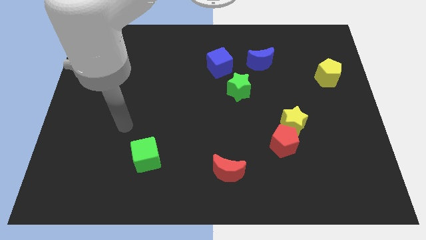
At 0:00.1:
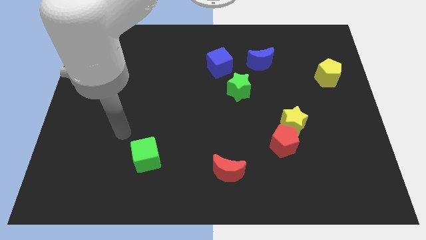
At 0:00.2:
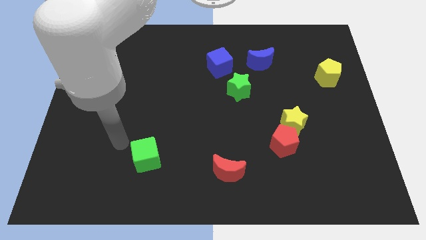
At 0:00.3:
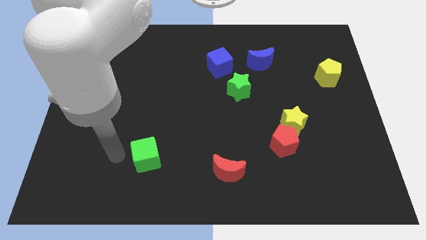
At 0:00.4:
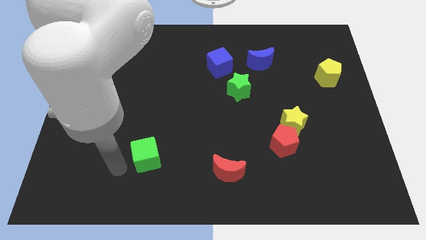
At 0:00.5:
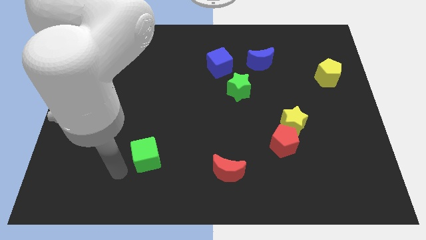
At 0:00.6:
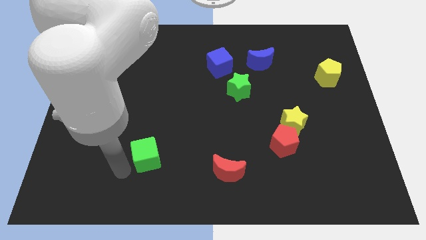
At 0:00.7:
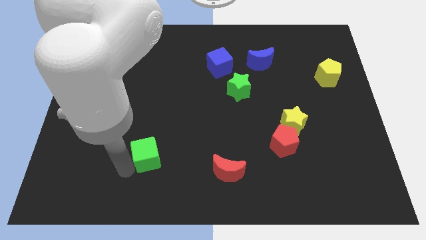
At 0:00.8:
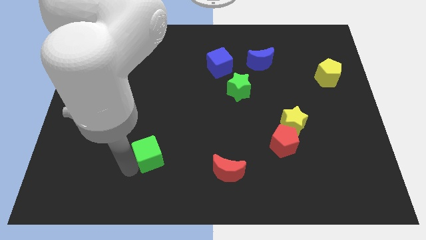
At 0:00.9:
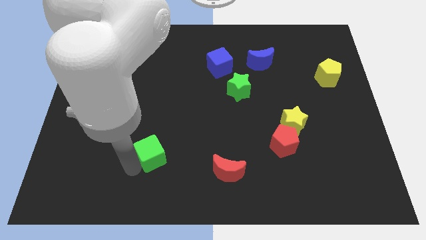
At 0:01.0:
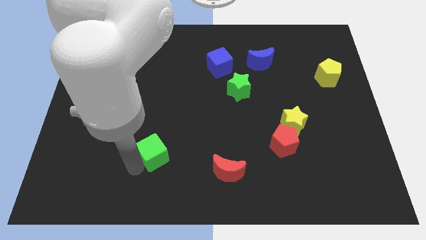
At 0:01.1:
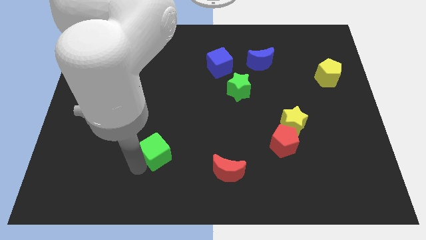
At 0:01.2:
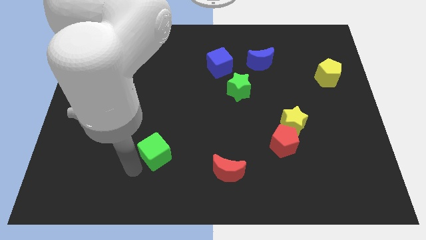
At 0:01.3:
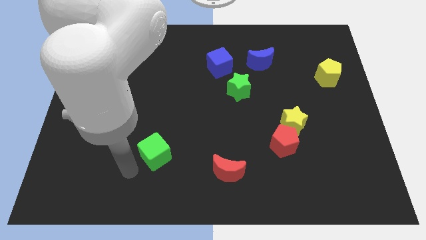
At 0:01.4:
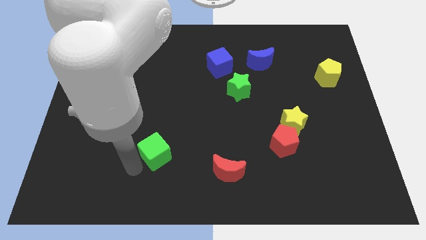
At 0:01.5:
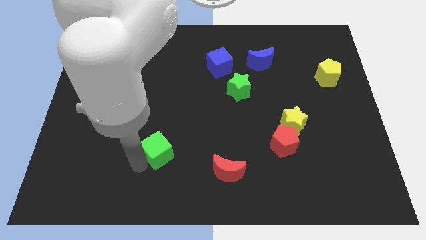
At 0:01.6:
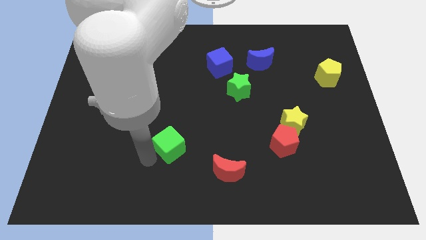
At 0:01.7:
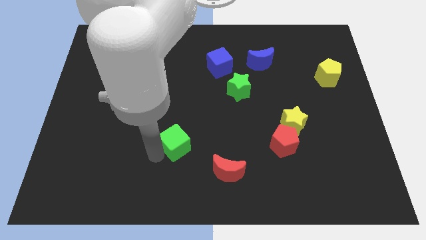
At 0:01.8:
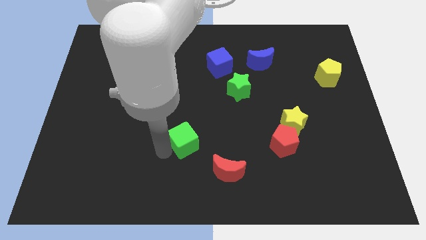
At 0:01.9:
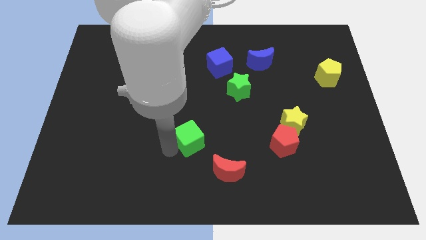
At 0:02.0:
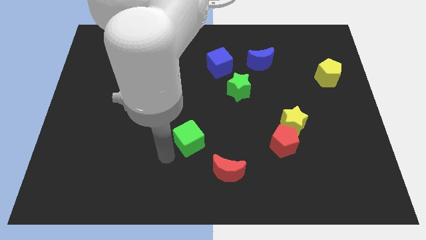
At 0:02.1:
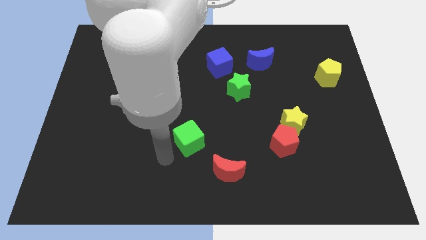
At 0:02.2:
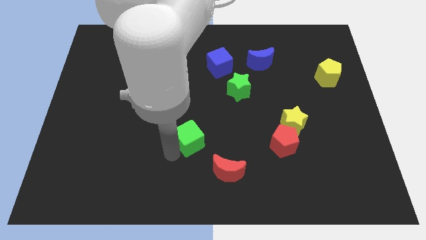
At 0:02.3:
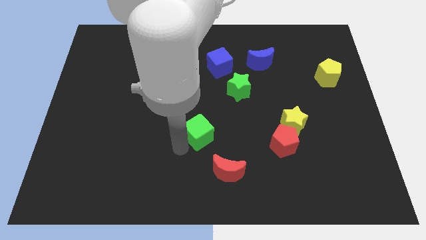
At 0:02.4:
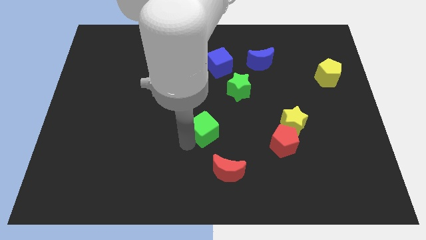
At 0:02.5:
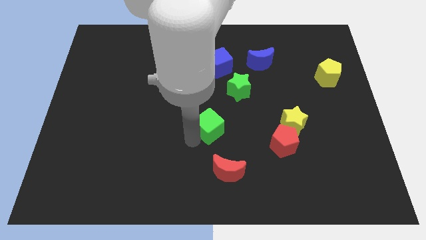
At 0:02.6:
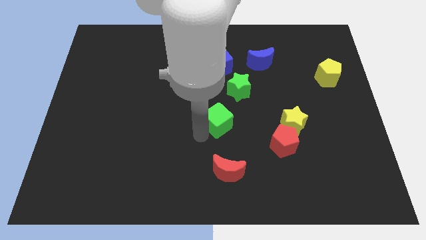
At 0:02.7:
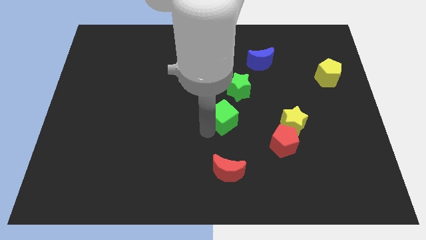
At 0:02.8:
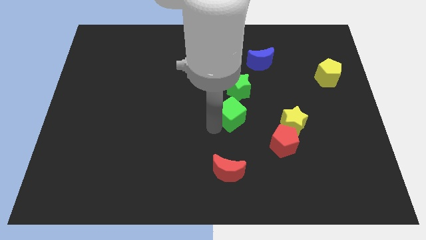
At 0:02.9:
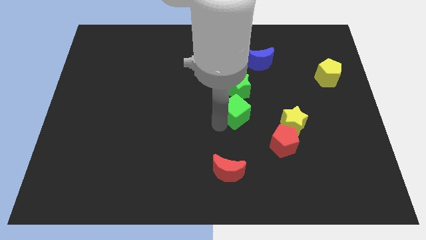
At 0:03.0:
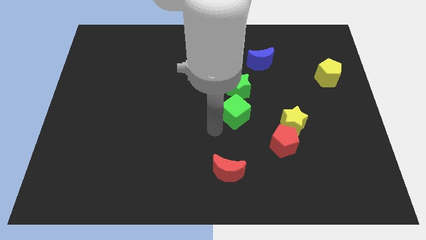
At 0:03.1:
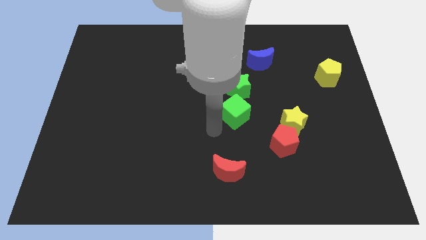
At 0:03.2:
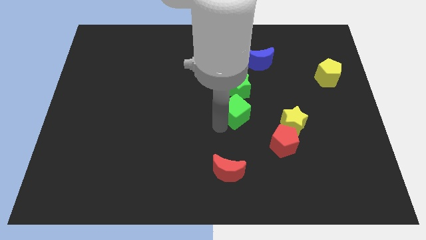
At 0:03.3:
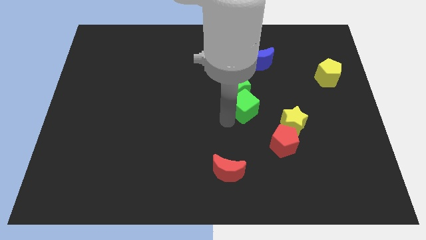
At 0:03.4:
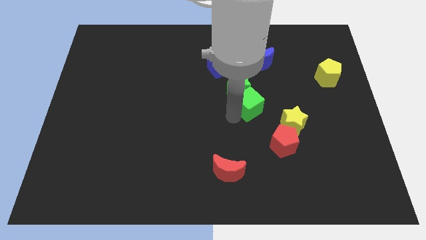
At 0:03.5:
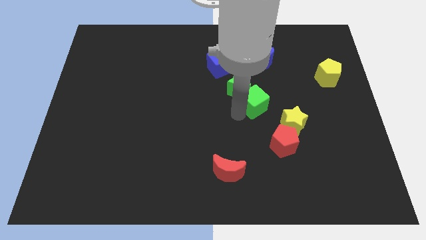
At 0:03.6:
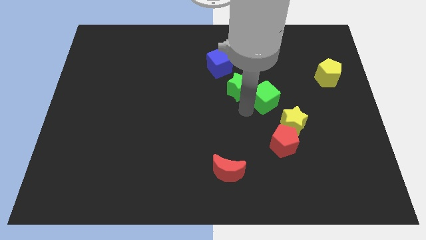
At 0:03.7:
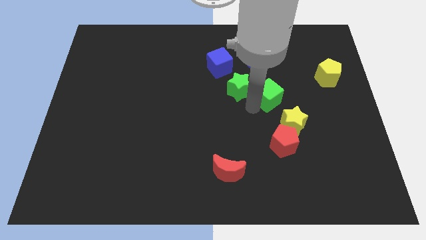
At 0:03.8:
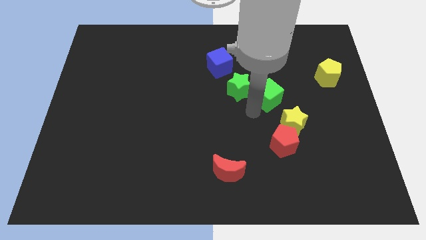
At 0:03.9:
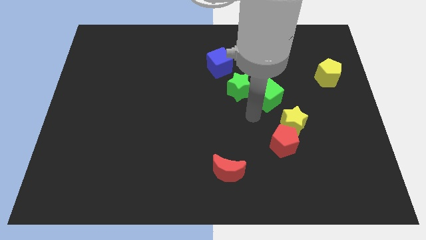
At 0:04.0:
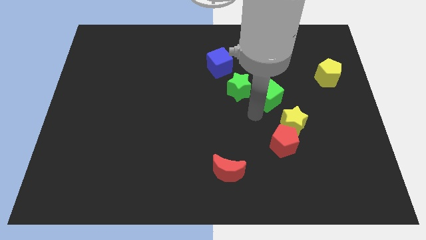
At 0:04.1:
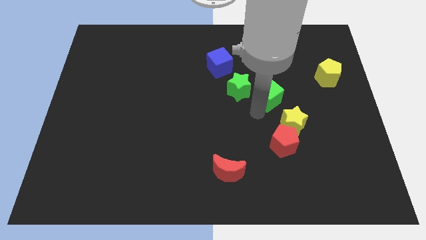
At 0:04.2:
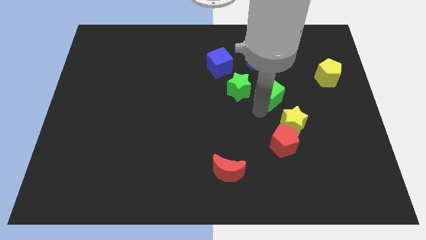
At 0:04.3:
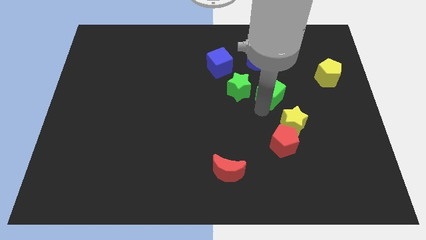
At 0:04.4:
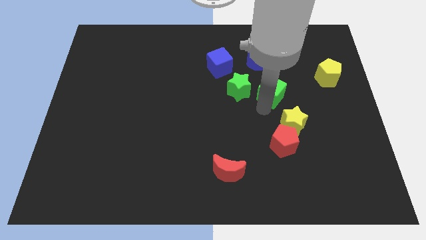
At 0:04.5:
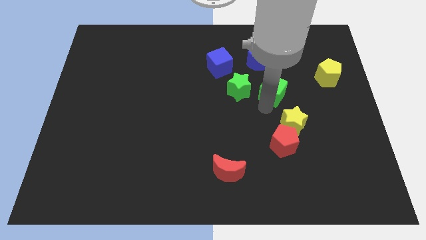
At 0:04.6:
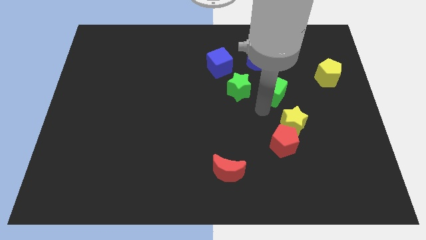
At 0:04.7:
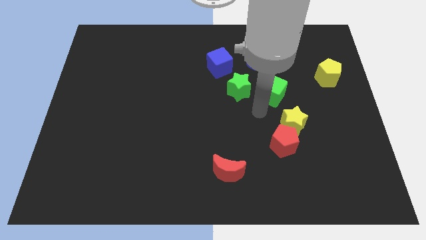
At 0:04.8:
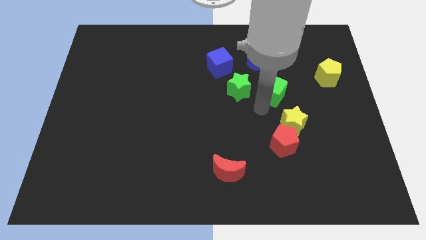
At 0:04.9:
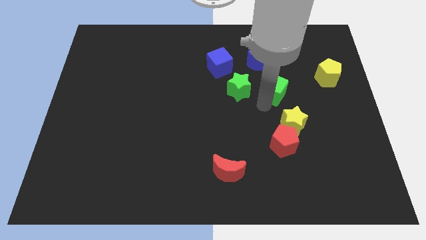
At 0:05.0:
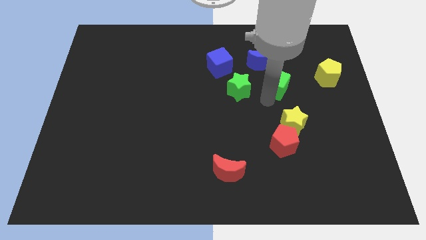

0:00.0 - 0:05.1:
push the green cube left of the yellow pentagon

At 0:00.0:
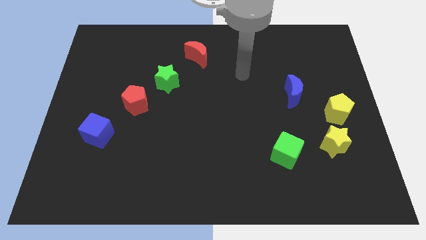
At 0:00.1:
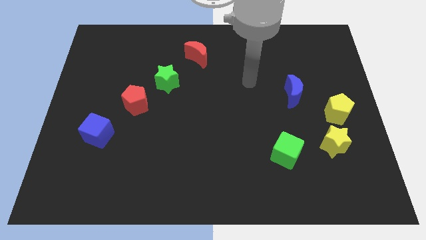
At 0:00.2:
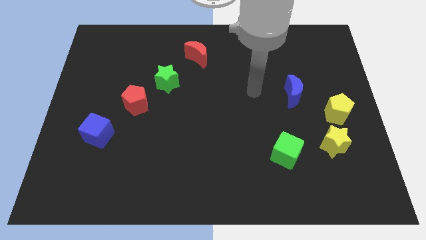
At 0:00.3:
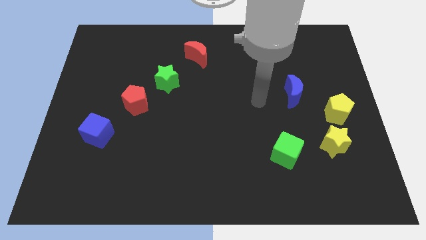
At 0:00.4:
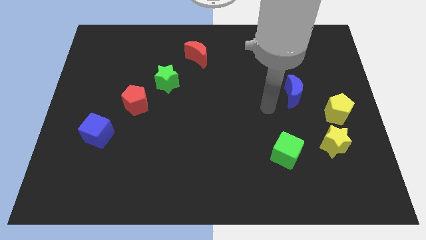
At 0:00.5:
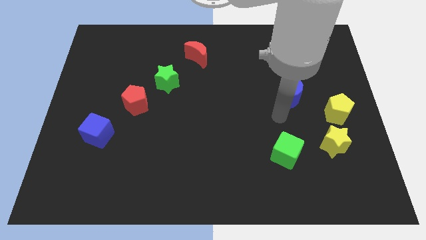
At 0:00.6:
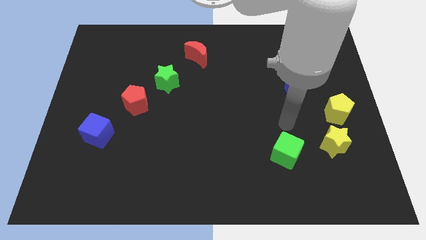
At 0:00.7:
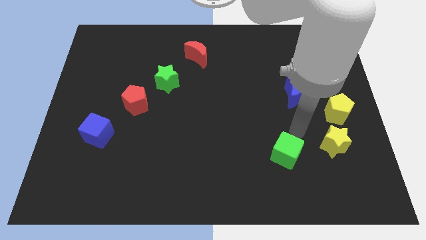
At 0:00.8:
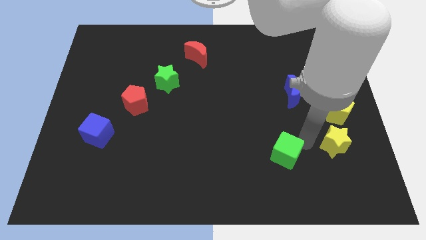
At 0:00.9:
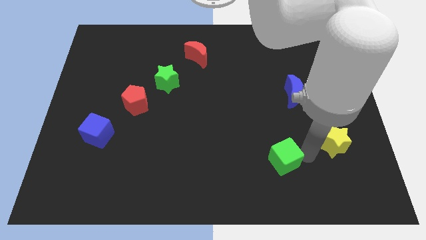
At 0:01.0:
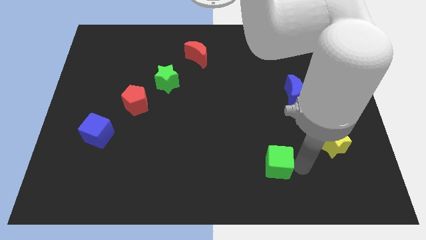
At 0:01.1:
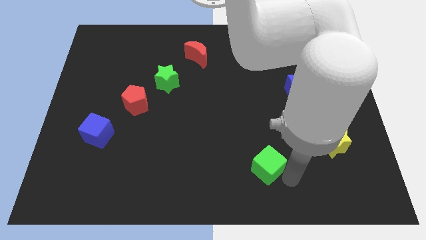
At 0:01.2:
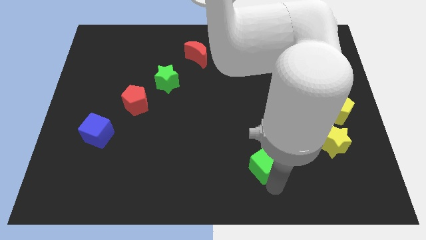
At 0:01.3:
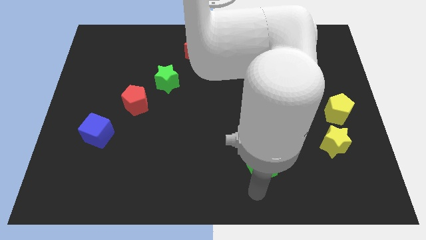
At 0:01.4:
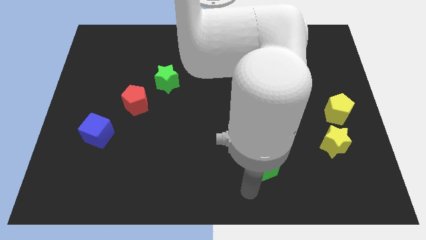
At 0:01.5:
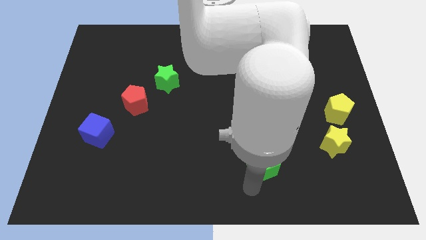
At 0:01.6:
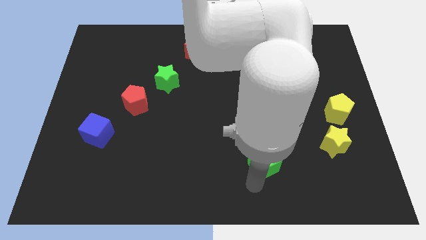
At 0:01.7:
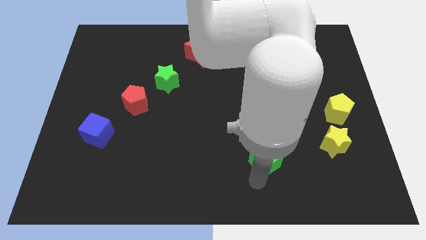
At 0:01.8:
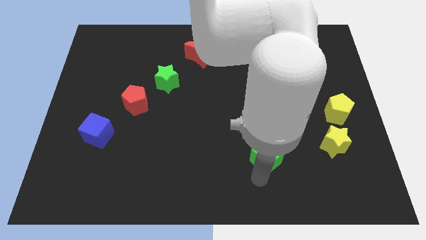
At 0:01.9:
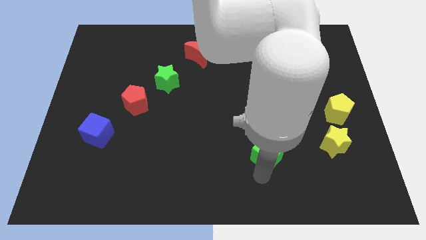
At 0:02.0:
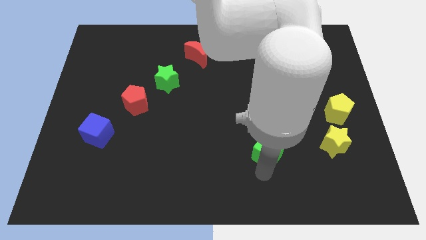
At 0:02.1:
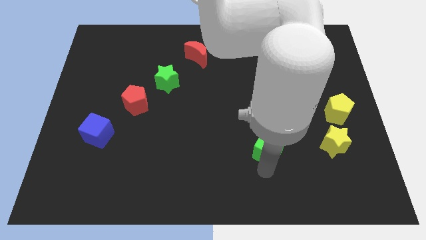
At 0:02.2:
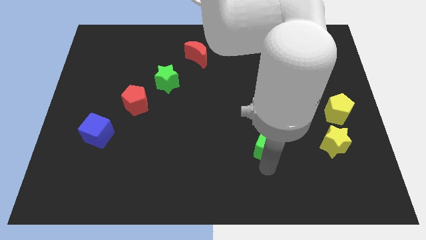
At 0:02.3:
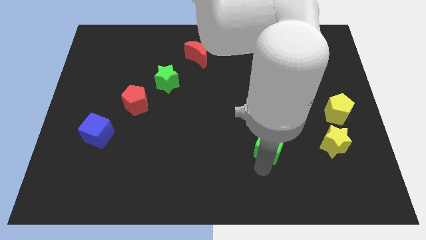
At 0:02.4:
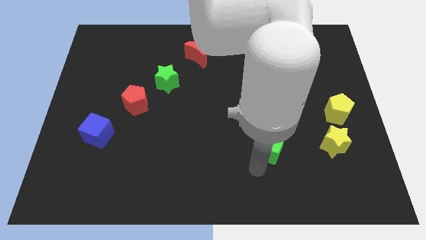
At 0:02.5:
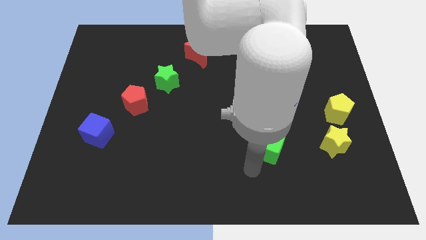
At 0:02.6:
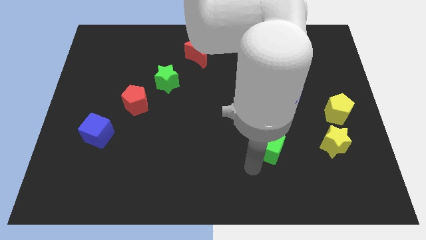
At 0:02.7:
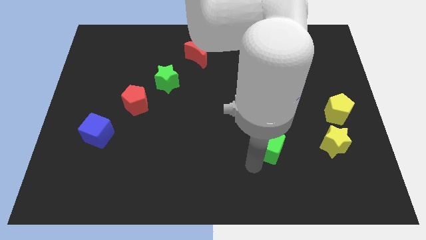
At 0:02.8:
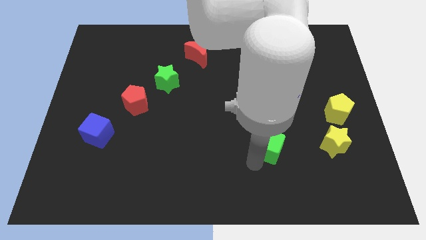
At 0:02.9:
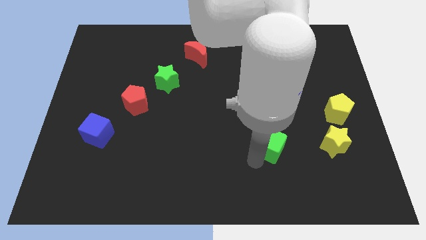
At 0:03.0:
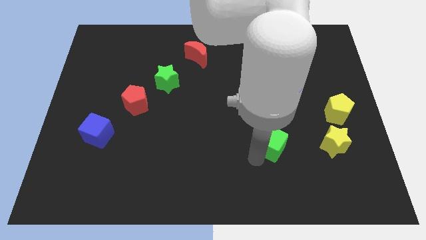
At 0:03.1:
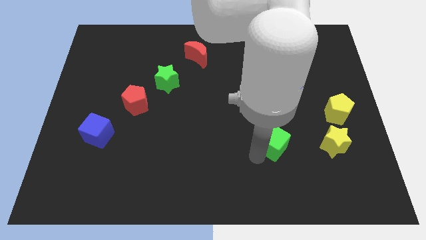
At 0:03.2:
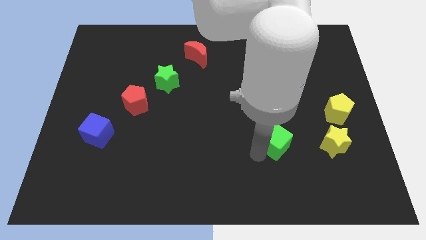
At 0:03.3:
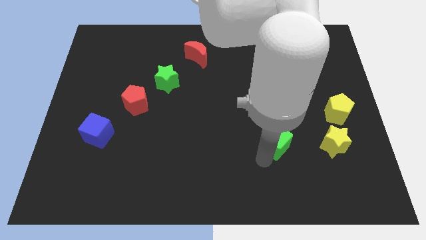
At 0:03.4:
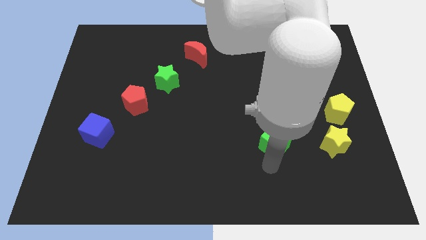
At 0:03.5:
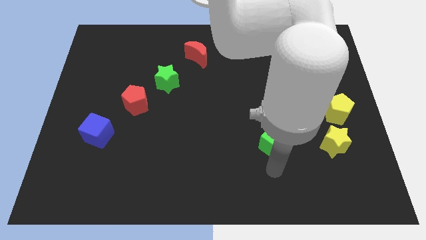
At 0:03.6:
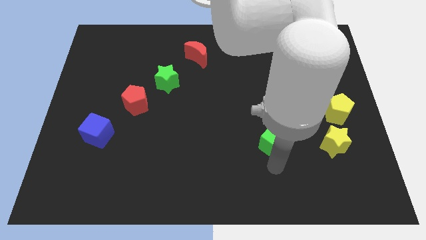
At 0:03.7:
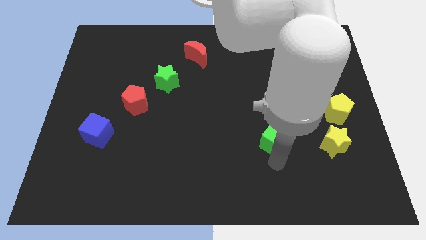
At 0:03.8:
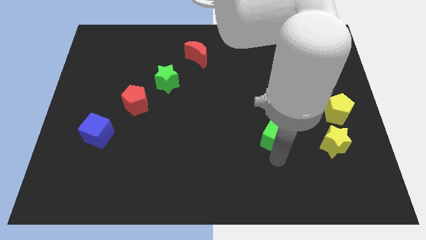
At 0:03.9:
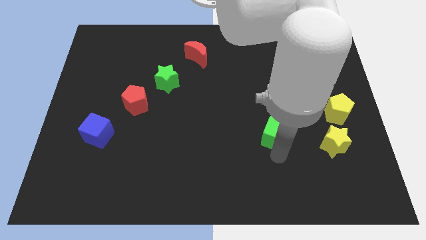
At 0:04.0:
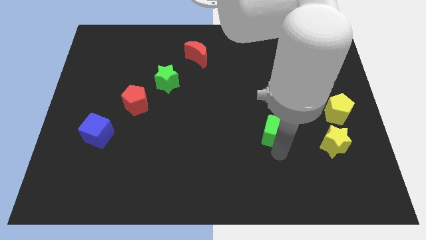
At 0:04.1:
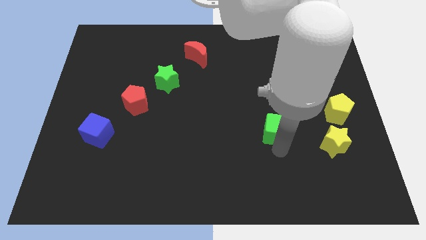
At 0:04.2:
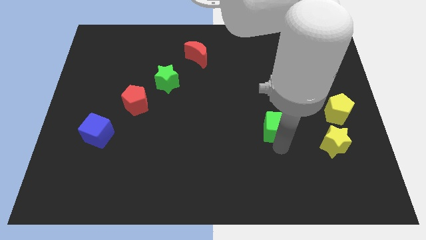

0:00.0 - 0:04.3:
move the green cube to the bottom left side of the blue moon
